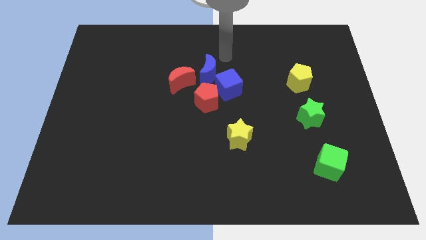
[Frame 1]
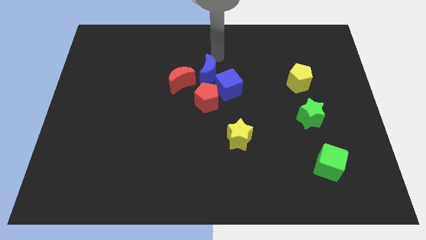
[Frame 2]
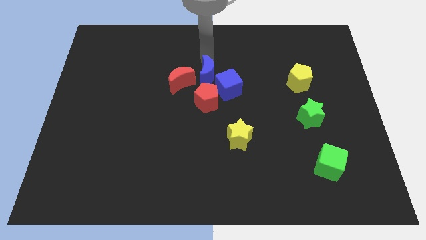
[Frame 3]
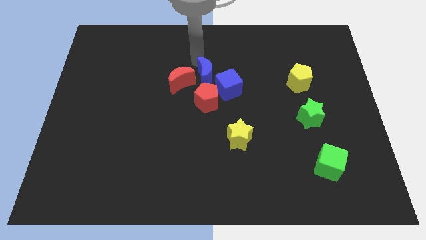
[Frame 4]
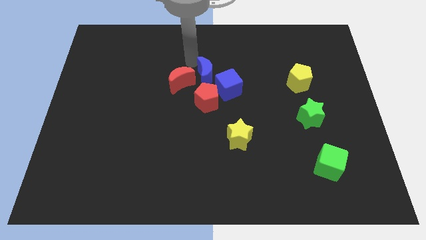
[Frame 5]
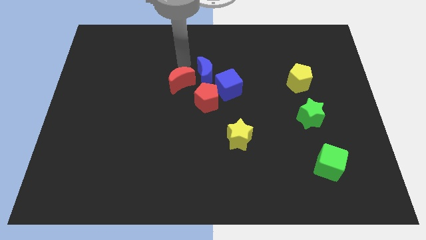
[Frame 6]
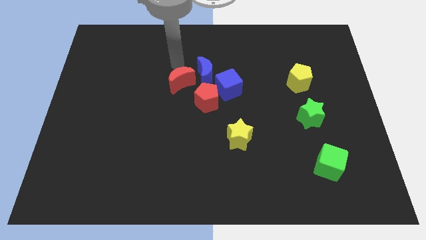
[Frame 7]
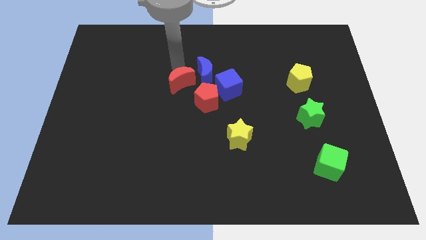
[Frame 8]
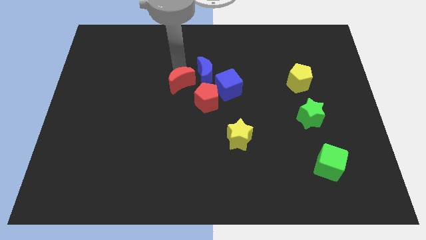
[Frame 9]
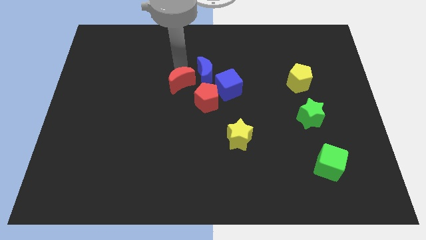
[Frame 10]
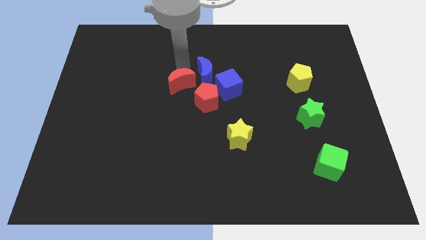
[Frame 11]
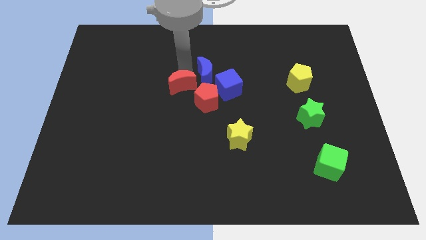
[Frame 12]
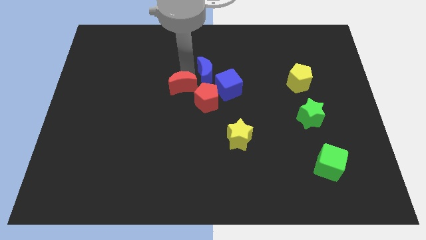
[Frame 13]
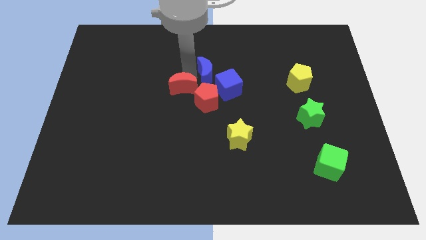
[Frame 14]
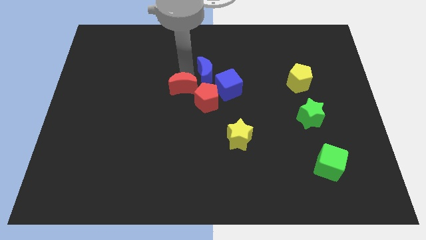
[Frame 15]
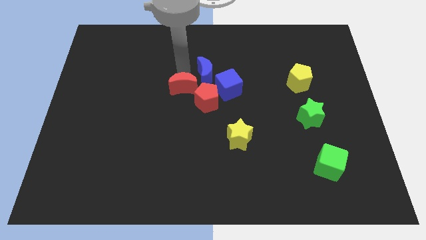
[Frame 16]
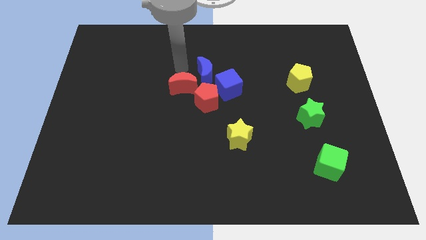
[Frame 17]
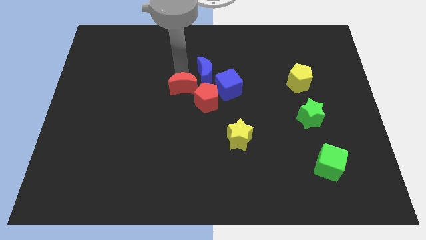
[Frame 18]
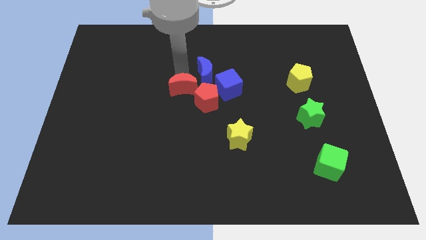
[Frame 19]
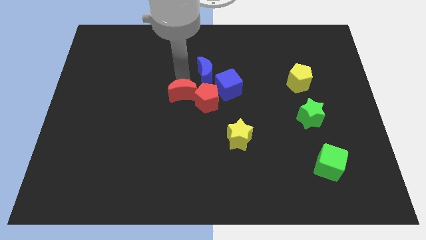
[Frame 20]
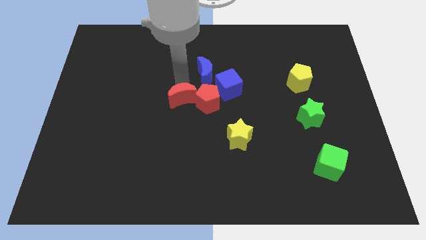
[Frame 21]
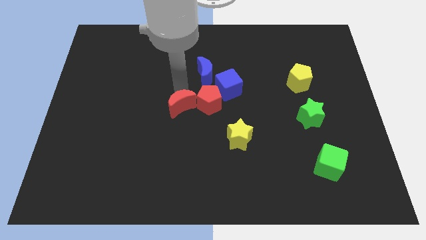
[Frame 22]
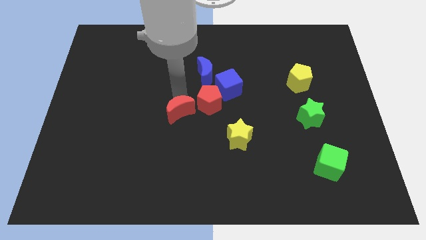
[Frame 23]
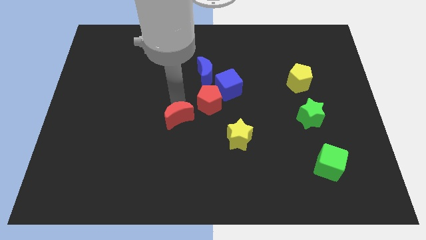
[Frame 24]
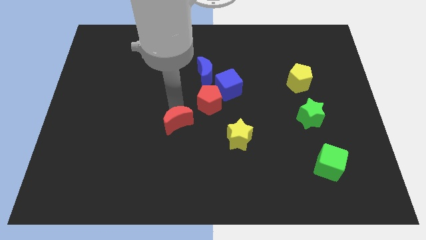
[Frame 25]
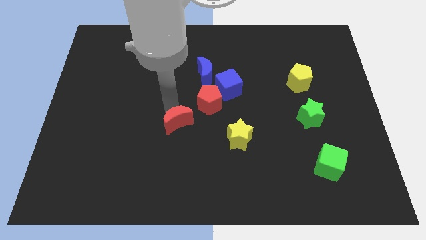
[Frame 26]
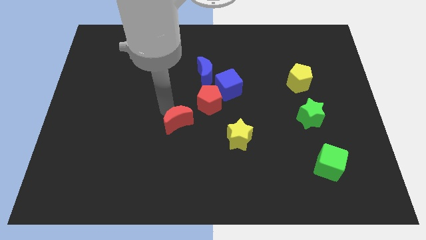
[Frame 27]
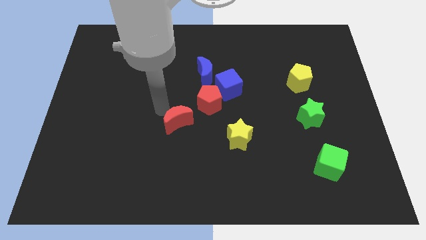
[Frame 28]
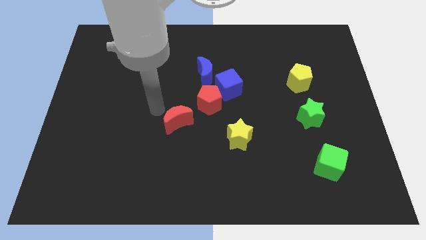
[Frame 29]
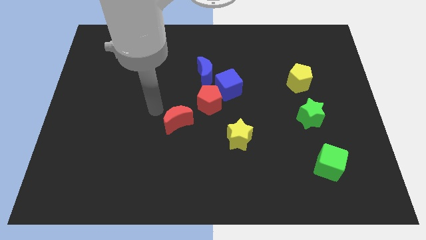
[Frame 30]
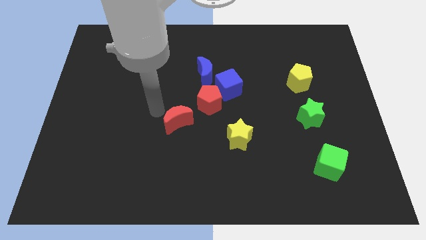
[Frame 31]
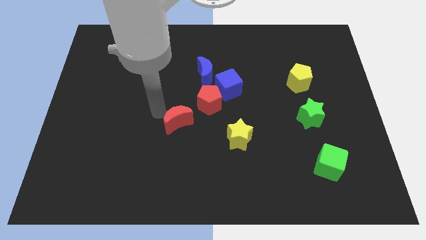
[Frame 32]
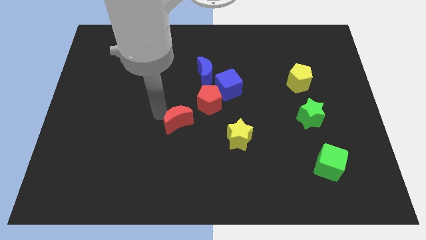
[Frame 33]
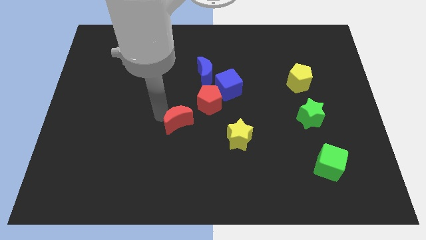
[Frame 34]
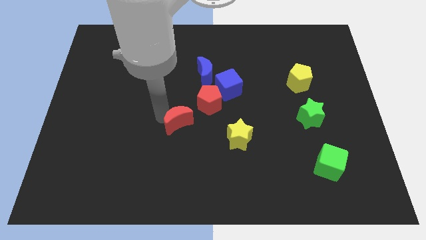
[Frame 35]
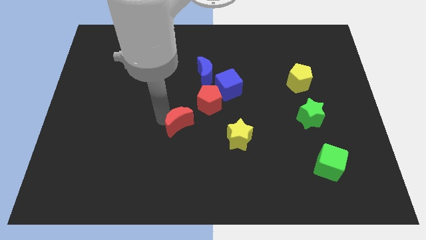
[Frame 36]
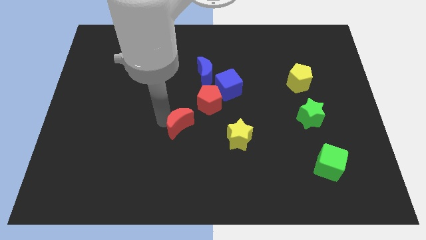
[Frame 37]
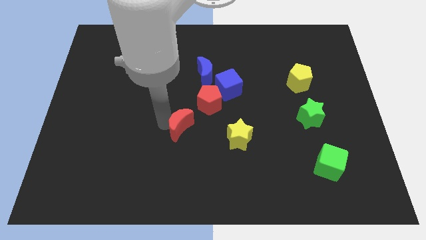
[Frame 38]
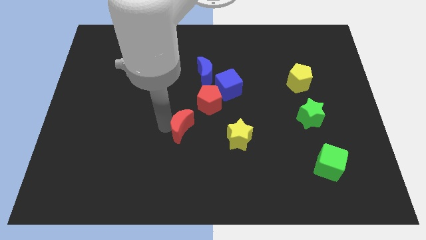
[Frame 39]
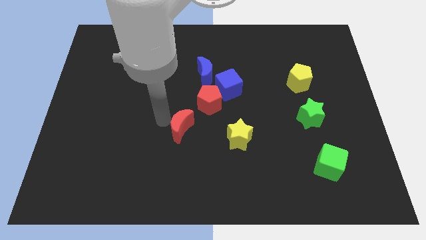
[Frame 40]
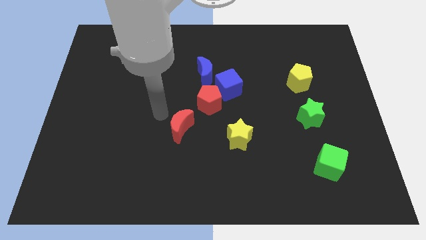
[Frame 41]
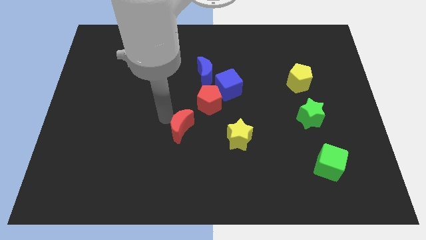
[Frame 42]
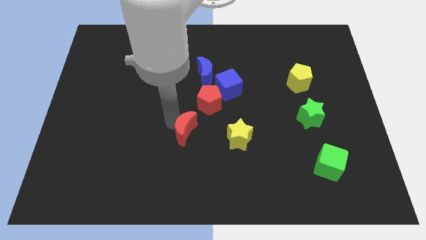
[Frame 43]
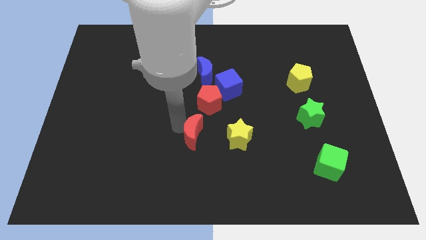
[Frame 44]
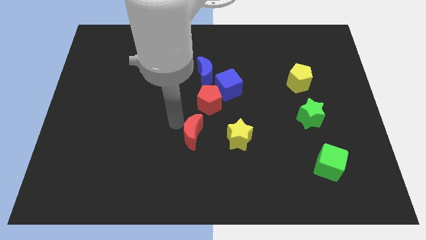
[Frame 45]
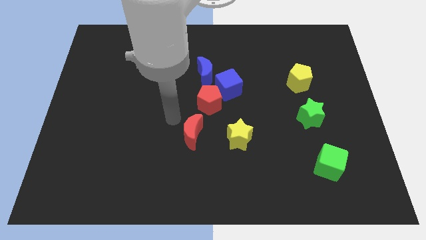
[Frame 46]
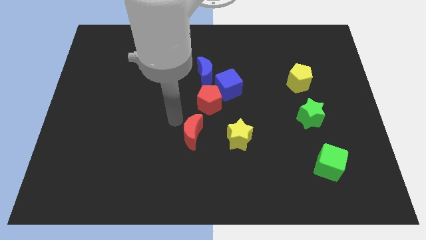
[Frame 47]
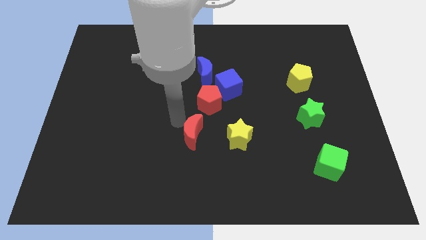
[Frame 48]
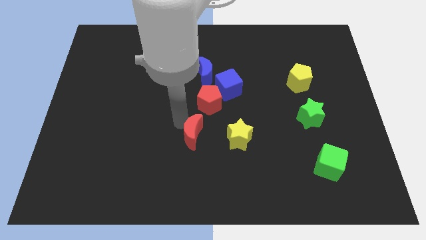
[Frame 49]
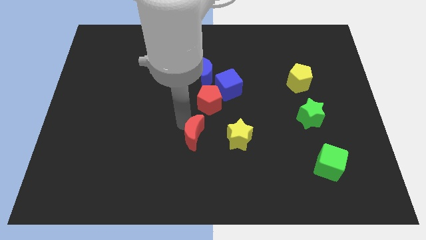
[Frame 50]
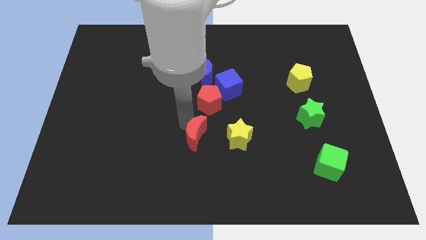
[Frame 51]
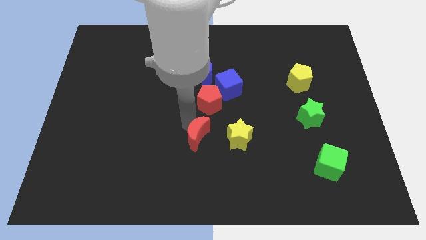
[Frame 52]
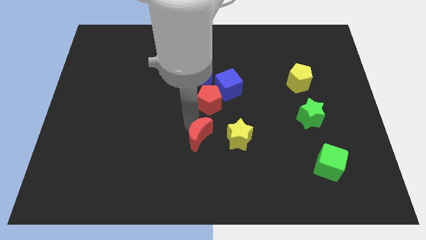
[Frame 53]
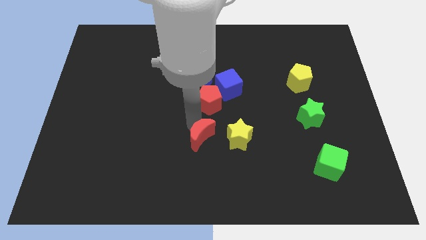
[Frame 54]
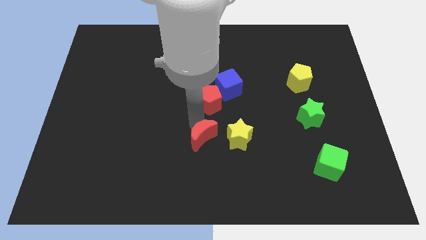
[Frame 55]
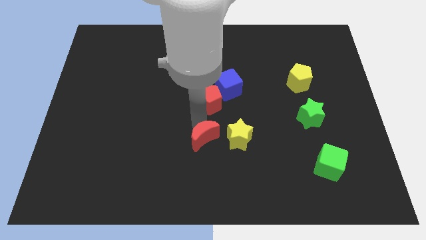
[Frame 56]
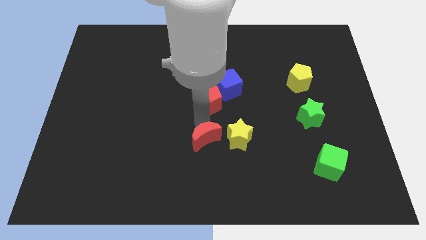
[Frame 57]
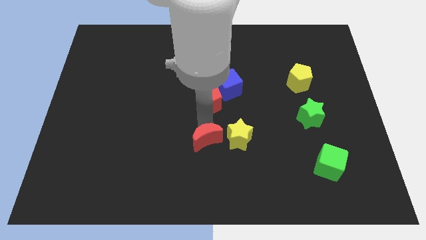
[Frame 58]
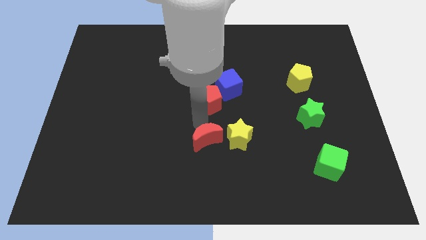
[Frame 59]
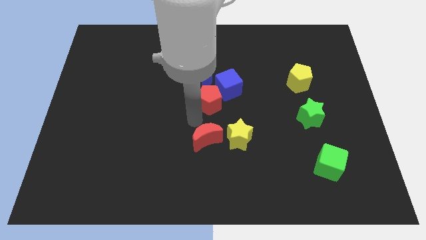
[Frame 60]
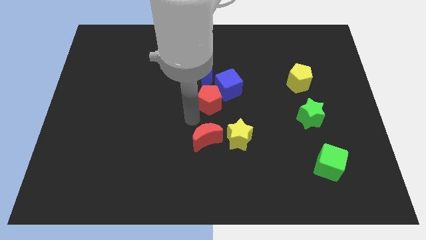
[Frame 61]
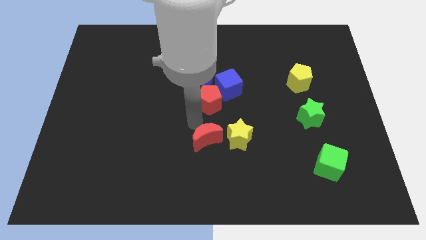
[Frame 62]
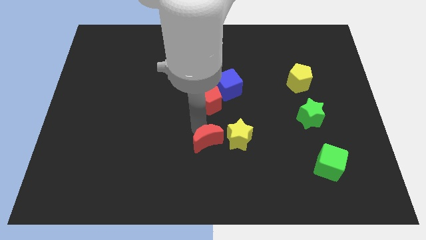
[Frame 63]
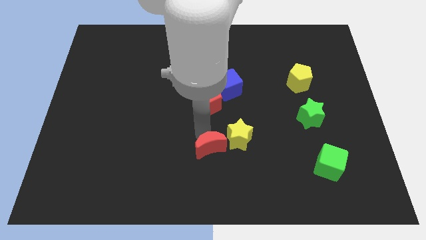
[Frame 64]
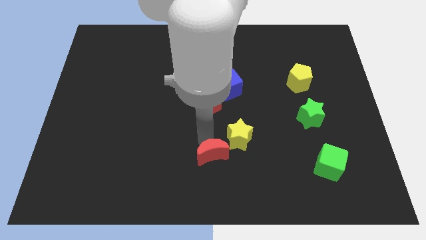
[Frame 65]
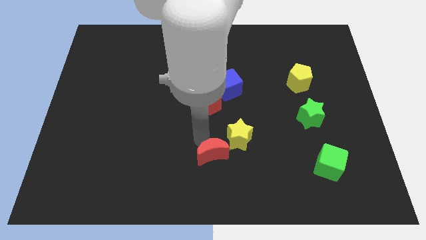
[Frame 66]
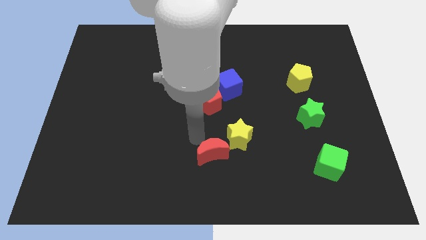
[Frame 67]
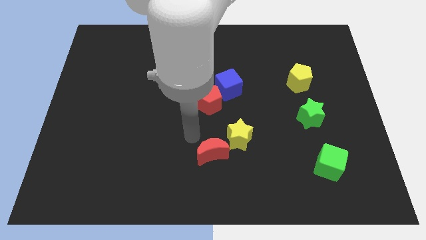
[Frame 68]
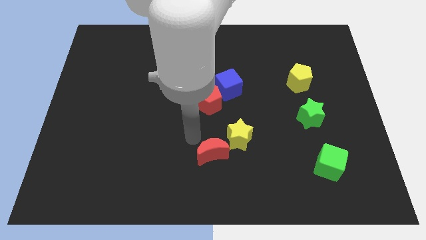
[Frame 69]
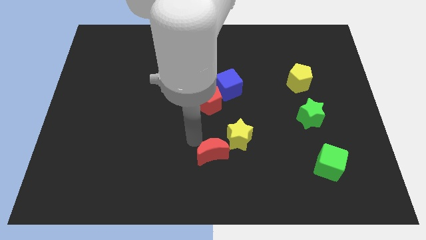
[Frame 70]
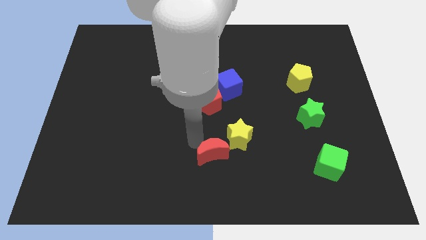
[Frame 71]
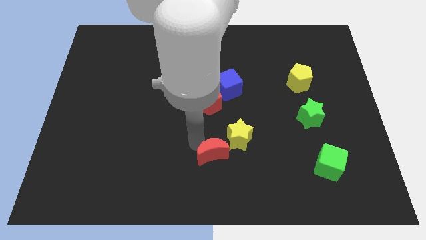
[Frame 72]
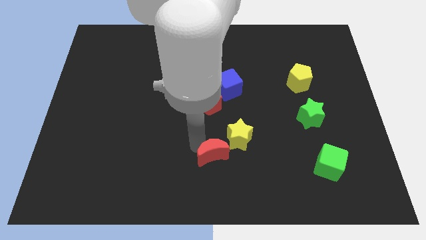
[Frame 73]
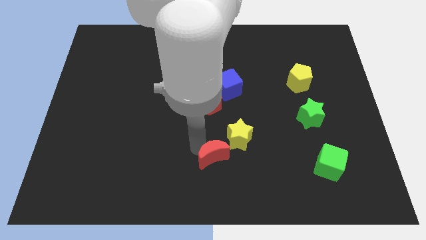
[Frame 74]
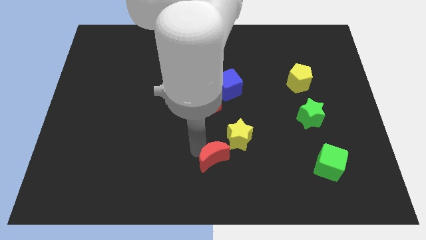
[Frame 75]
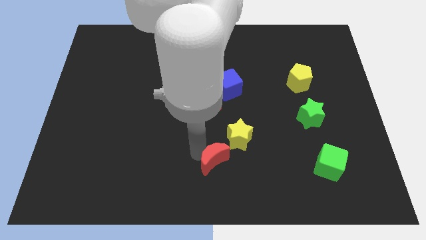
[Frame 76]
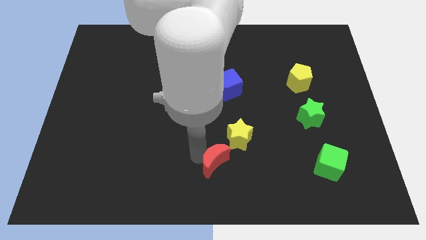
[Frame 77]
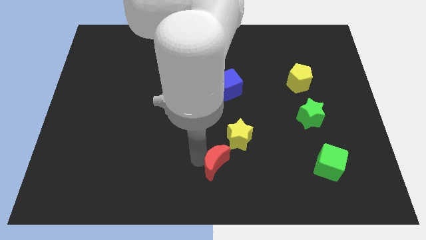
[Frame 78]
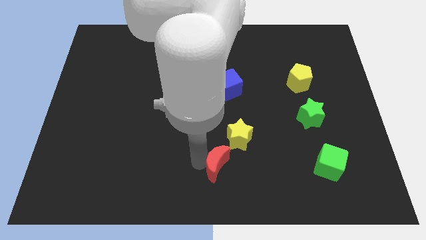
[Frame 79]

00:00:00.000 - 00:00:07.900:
slide the red moon below the yellow star
